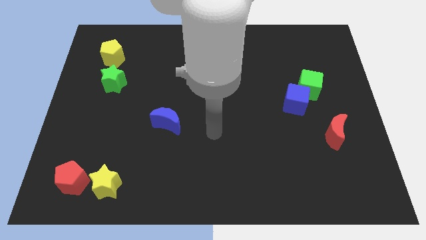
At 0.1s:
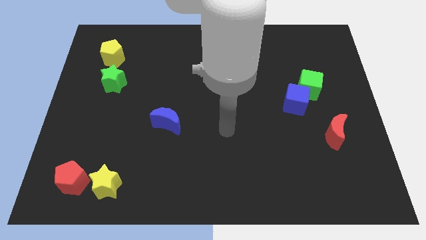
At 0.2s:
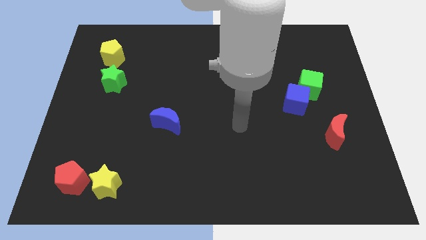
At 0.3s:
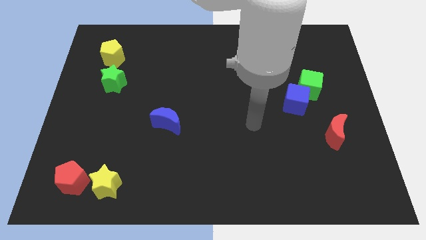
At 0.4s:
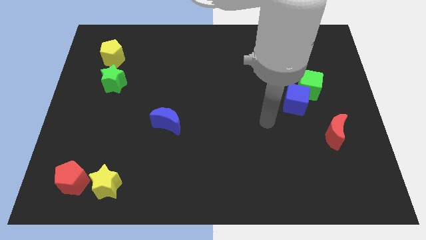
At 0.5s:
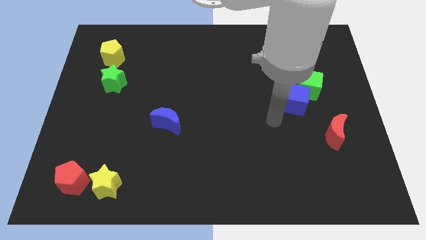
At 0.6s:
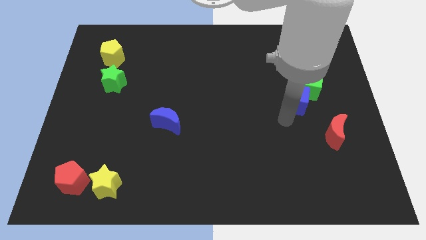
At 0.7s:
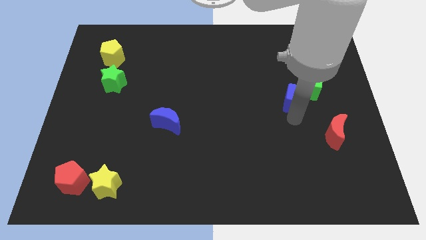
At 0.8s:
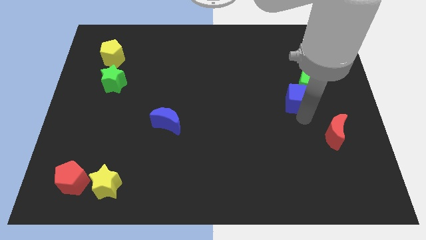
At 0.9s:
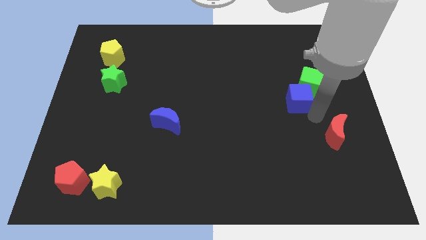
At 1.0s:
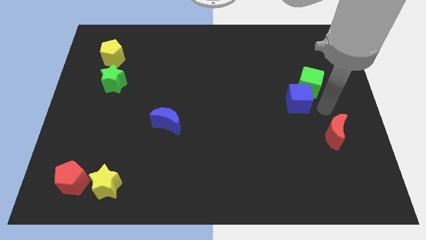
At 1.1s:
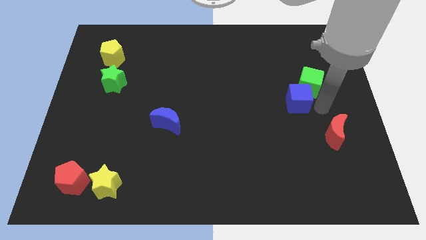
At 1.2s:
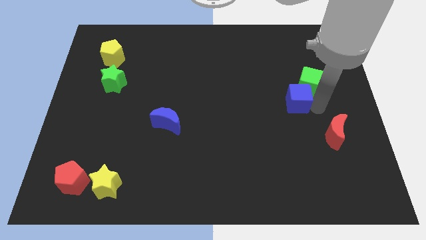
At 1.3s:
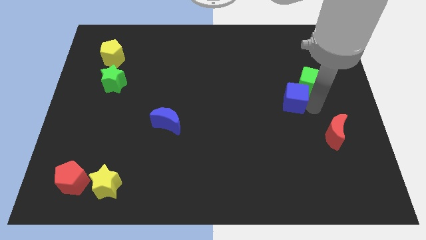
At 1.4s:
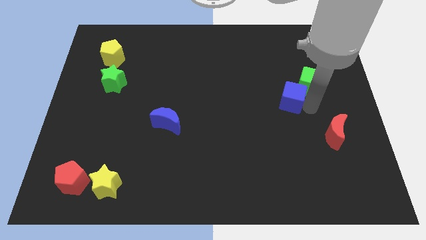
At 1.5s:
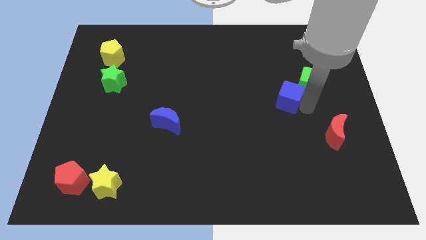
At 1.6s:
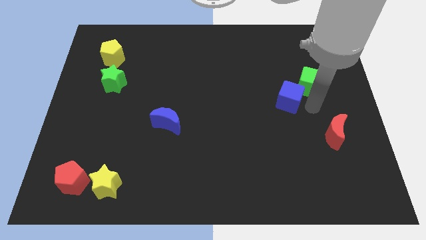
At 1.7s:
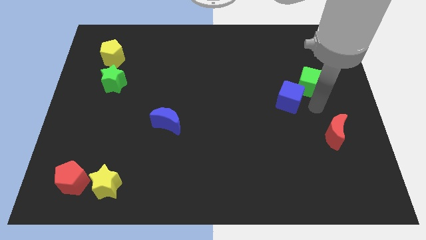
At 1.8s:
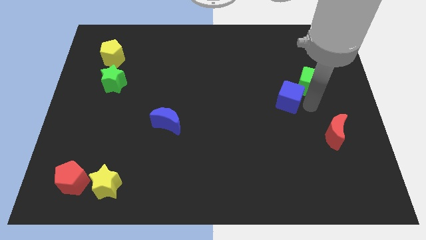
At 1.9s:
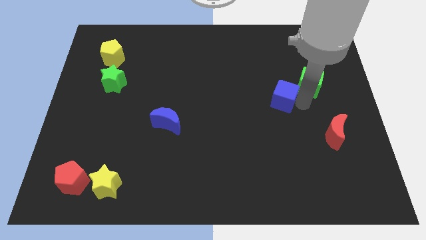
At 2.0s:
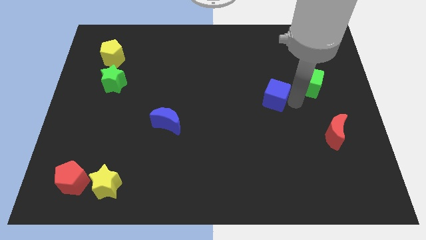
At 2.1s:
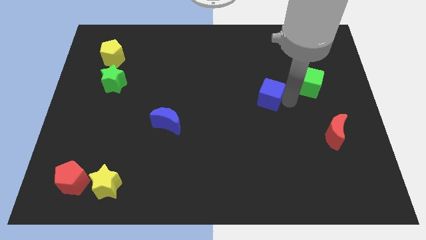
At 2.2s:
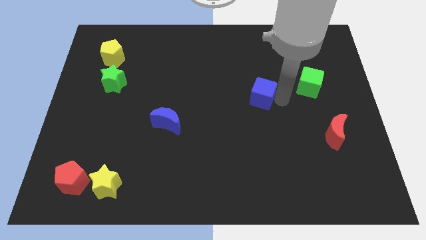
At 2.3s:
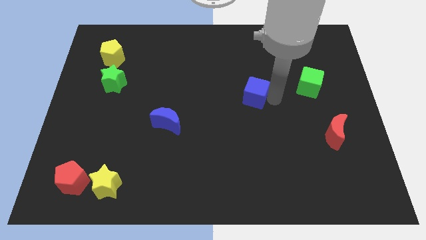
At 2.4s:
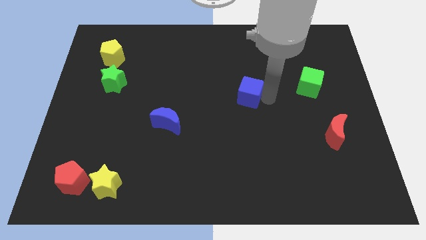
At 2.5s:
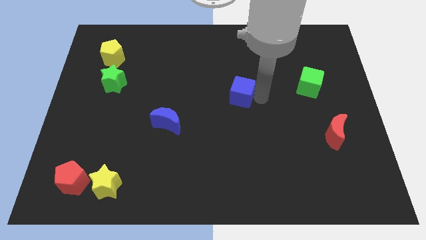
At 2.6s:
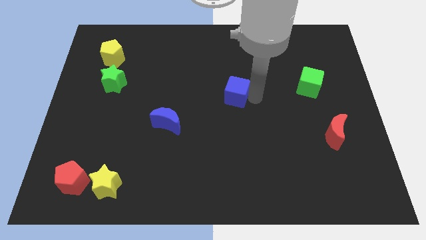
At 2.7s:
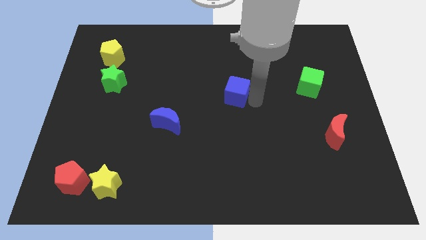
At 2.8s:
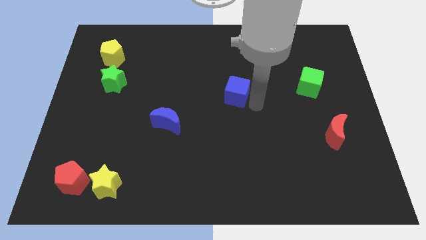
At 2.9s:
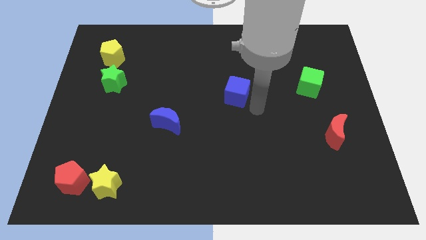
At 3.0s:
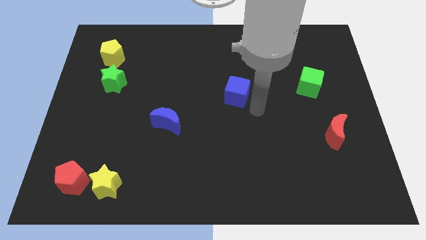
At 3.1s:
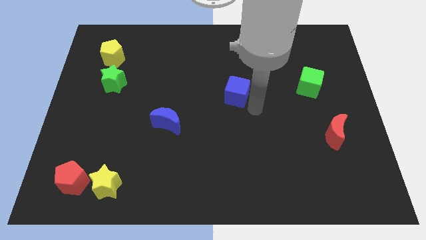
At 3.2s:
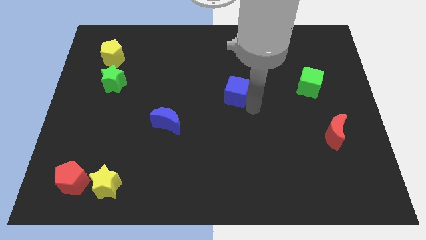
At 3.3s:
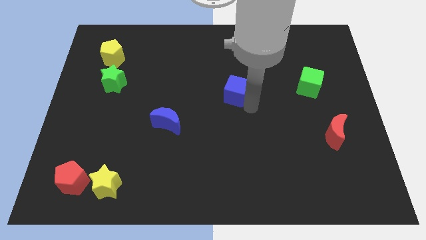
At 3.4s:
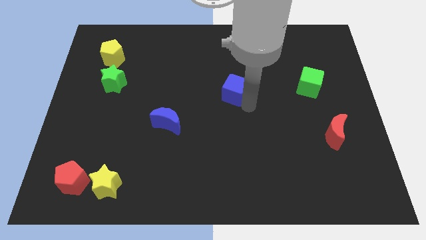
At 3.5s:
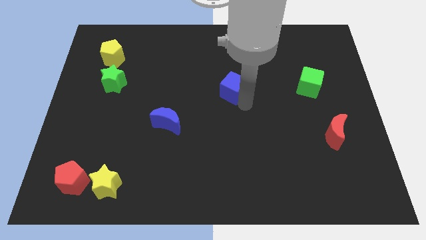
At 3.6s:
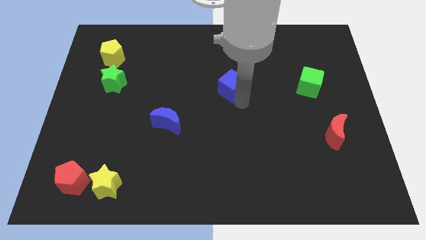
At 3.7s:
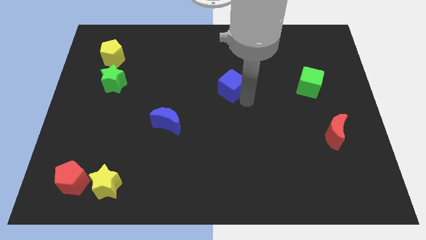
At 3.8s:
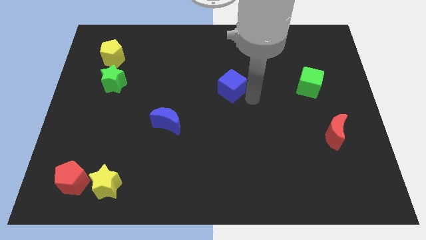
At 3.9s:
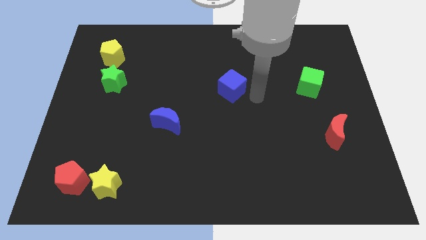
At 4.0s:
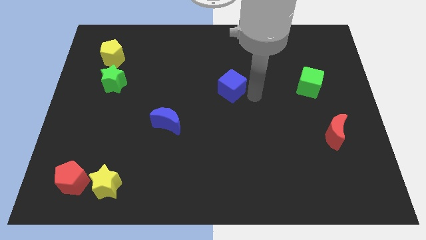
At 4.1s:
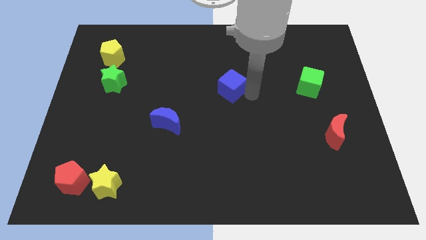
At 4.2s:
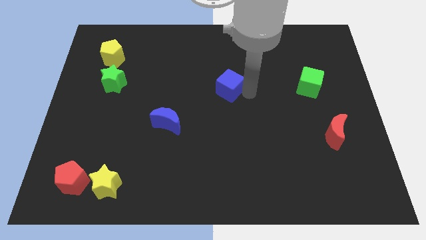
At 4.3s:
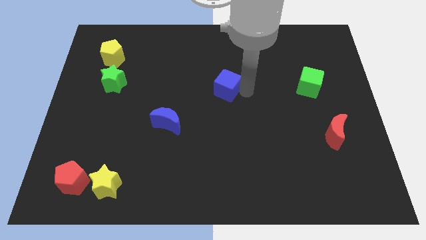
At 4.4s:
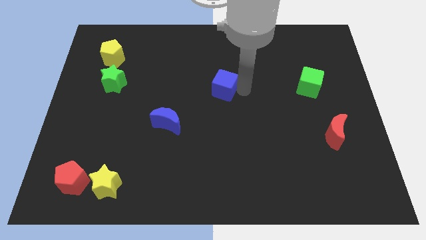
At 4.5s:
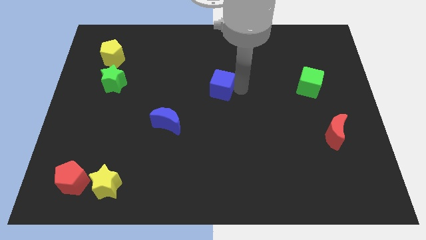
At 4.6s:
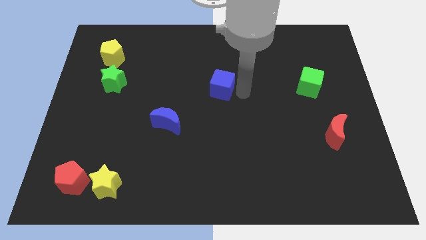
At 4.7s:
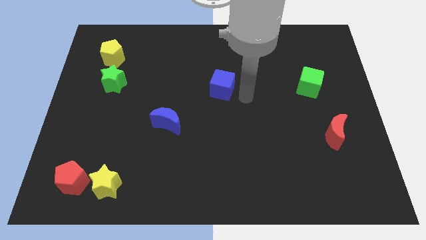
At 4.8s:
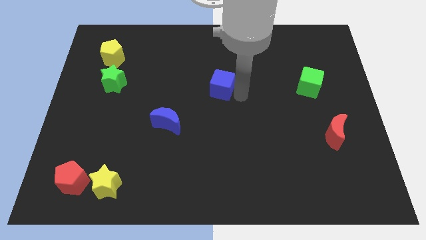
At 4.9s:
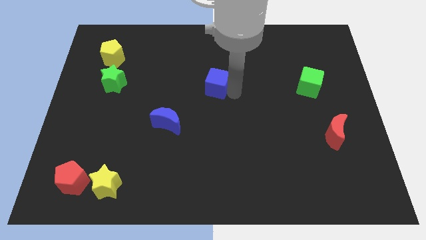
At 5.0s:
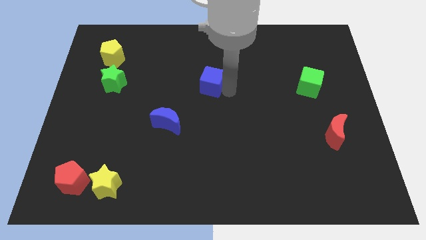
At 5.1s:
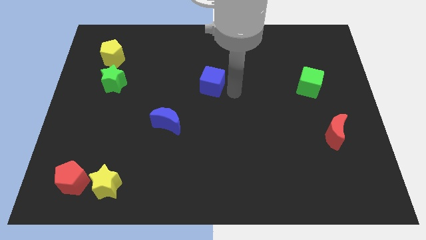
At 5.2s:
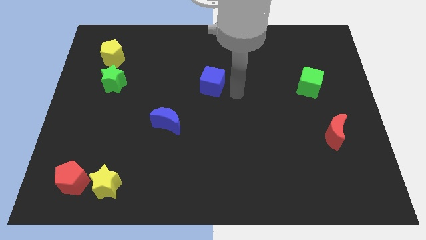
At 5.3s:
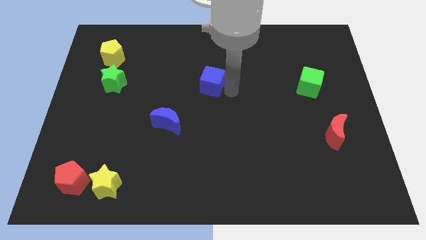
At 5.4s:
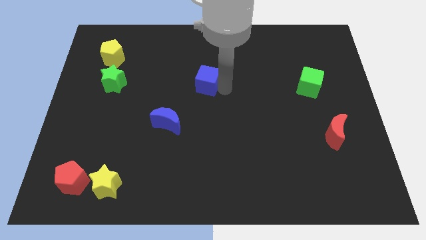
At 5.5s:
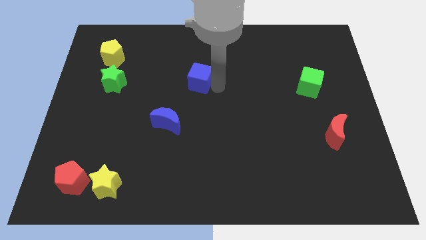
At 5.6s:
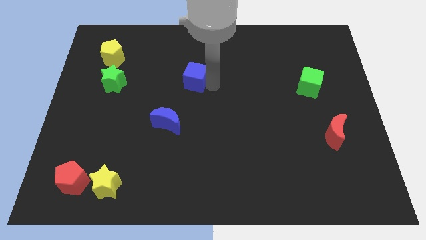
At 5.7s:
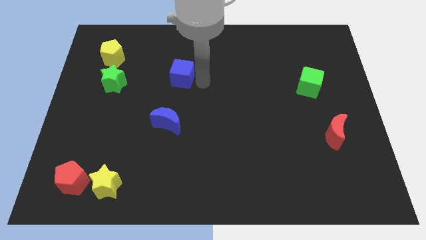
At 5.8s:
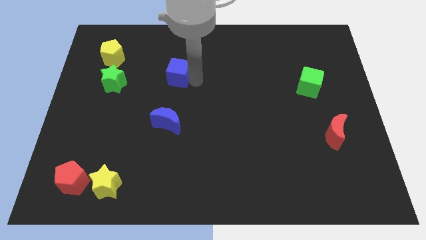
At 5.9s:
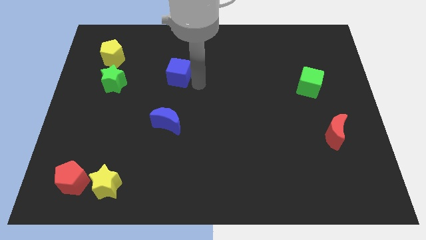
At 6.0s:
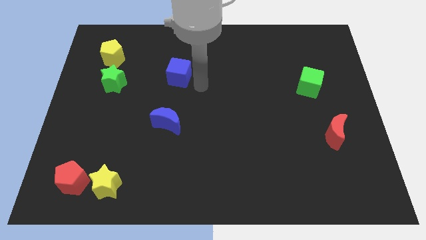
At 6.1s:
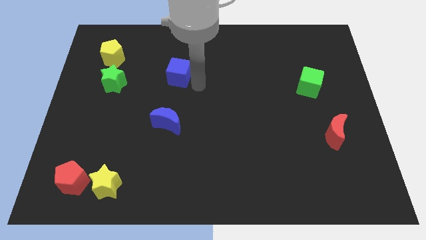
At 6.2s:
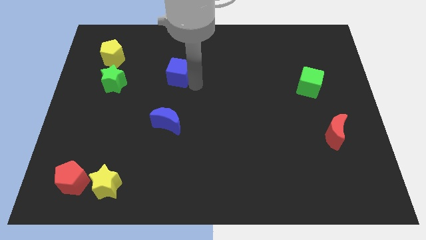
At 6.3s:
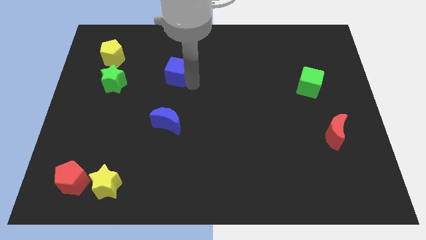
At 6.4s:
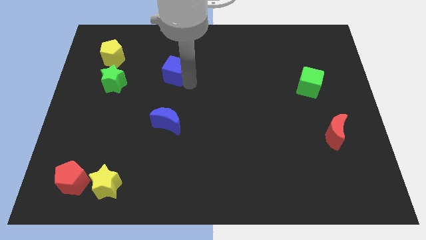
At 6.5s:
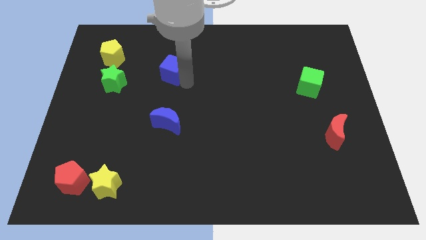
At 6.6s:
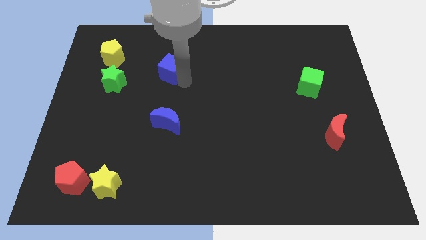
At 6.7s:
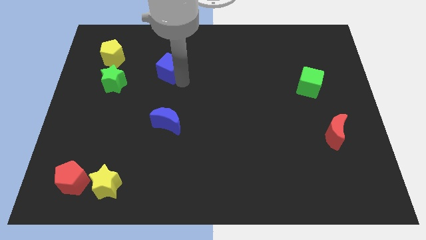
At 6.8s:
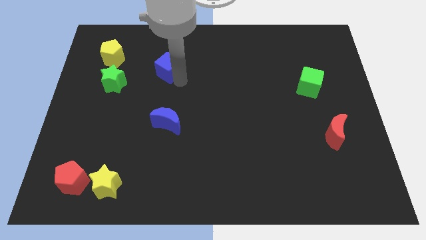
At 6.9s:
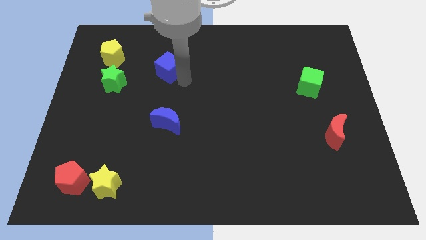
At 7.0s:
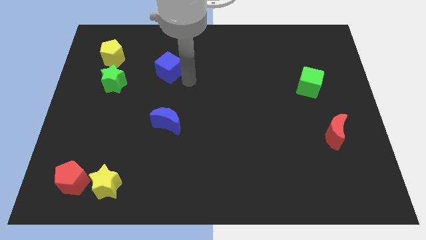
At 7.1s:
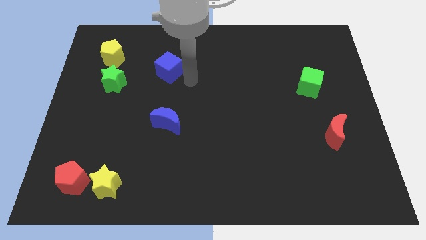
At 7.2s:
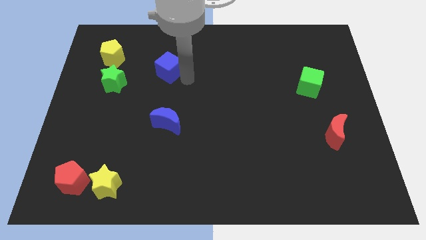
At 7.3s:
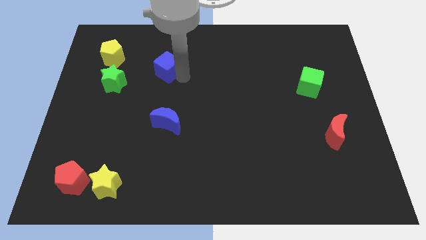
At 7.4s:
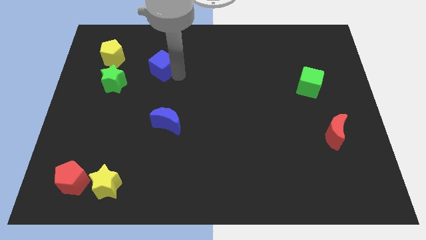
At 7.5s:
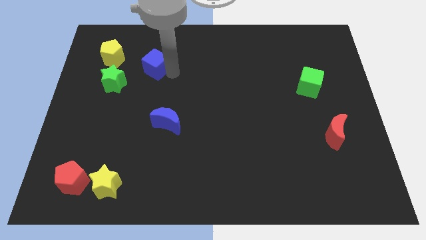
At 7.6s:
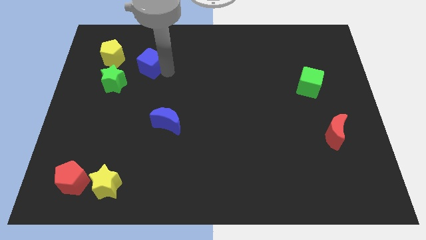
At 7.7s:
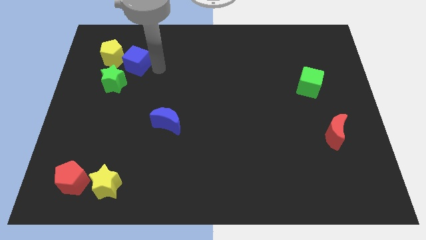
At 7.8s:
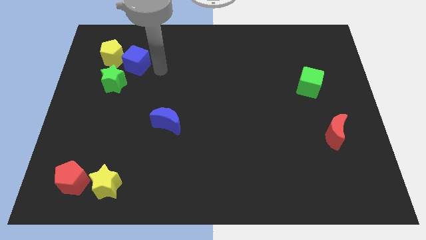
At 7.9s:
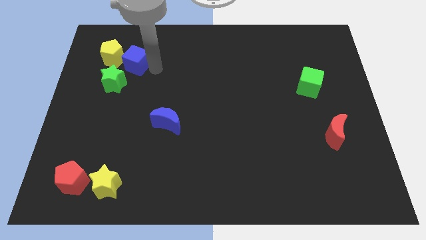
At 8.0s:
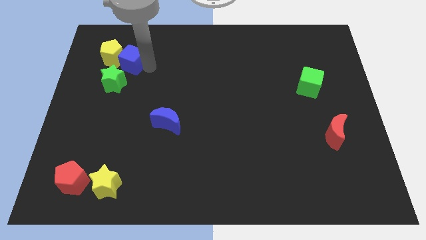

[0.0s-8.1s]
push the blue cube next to the yellow pentagon
